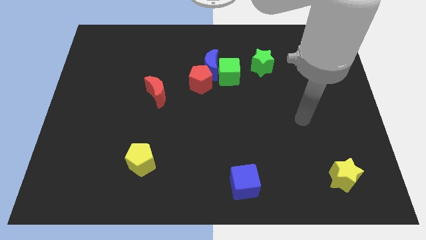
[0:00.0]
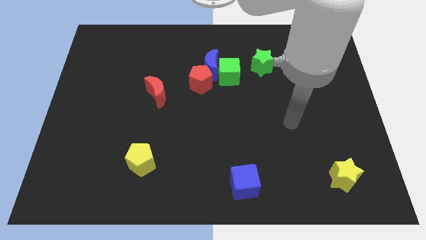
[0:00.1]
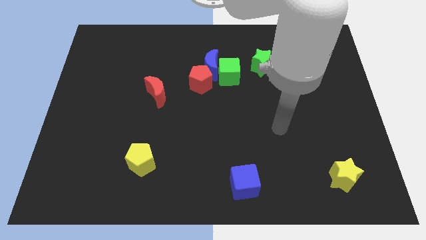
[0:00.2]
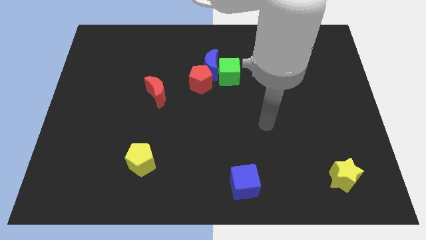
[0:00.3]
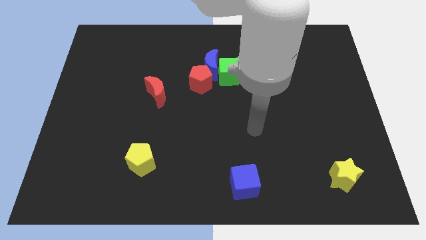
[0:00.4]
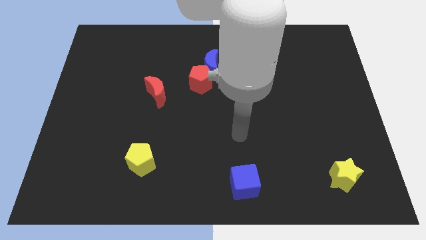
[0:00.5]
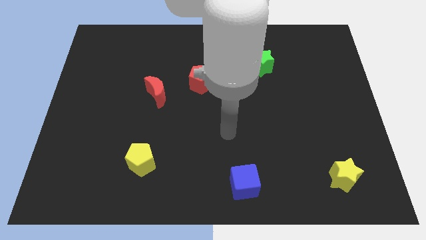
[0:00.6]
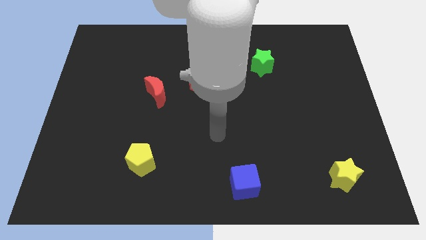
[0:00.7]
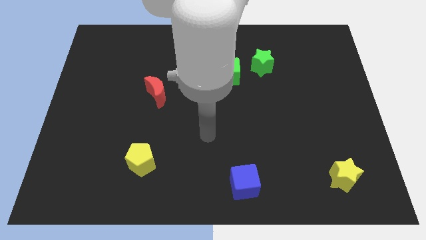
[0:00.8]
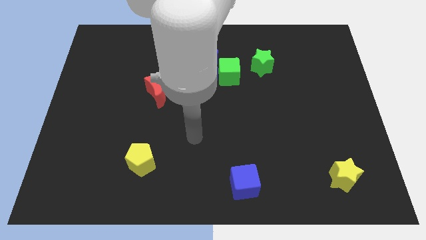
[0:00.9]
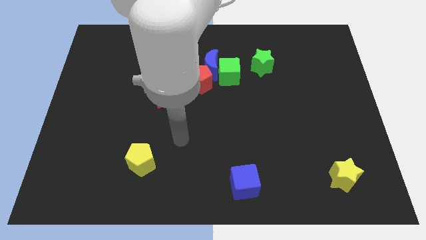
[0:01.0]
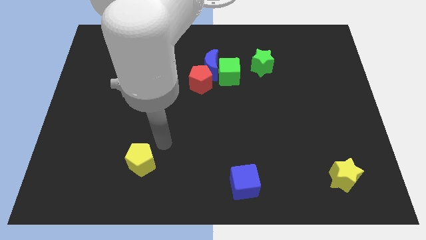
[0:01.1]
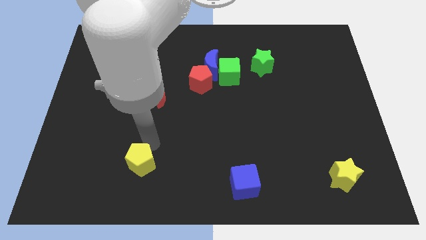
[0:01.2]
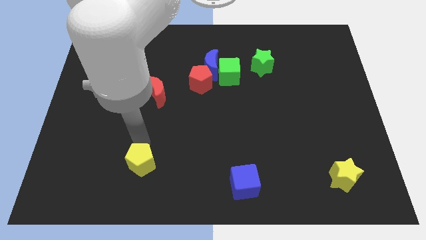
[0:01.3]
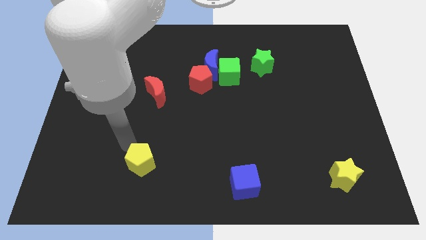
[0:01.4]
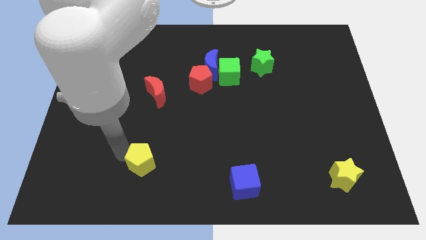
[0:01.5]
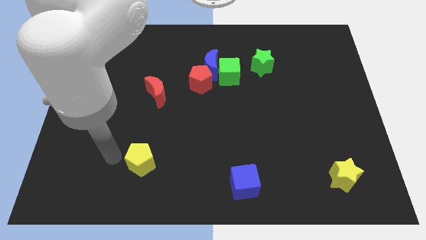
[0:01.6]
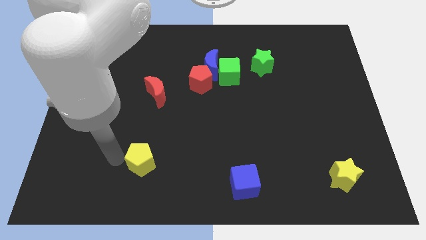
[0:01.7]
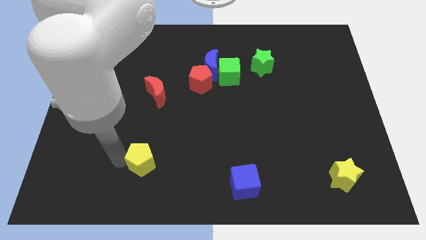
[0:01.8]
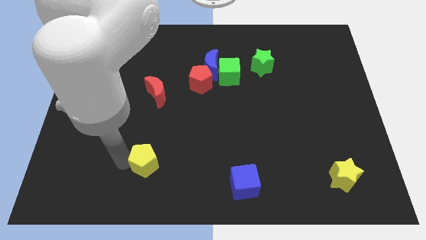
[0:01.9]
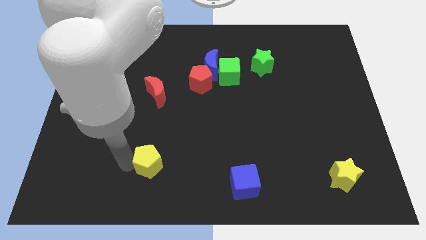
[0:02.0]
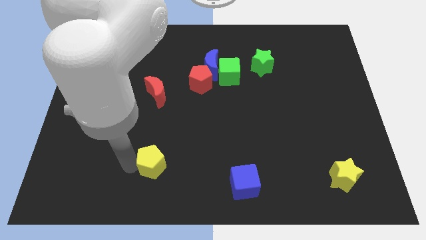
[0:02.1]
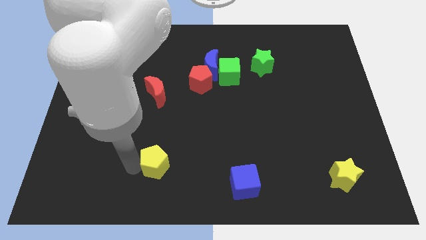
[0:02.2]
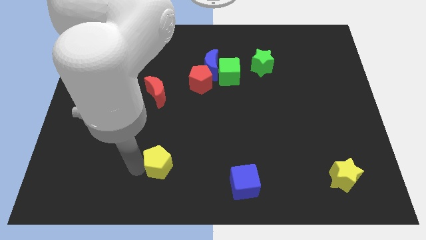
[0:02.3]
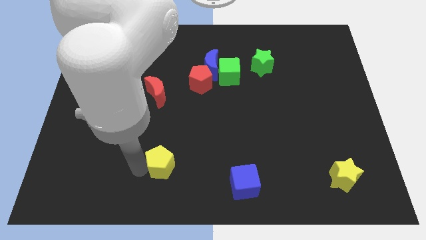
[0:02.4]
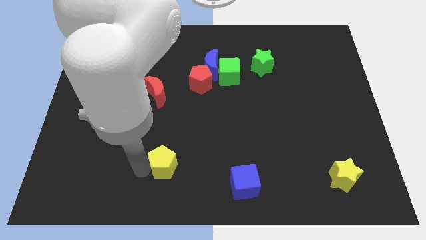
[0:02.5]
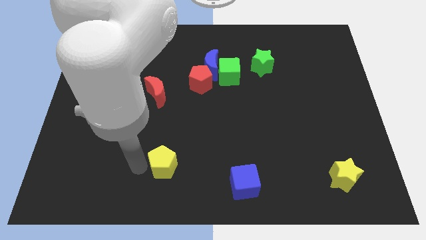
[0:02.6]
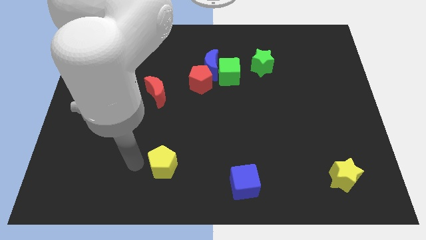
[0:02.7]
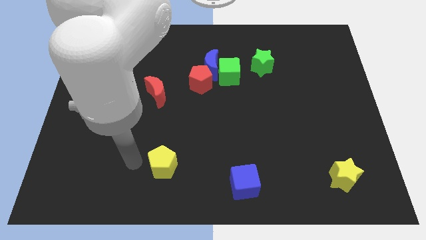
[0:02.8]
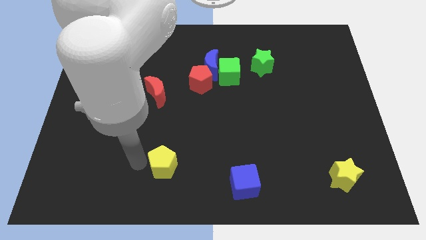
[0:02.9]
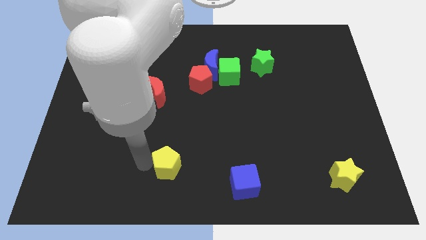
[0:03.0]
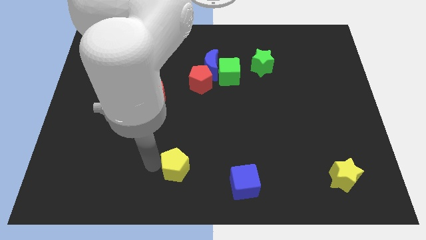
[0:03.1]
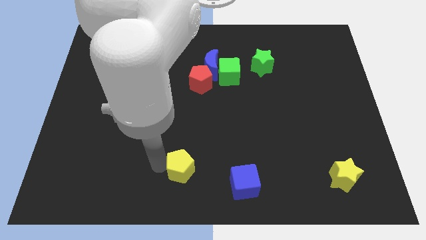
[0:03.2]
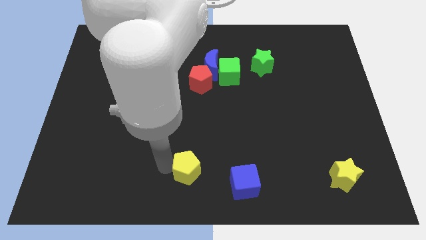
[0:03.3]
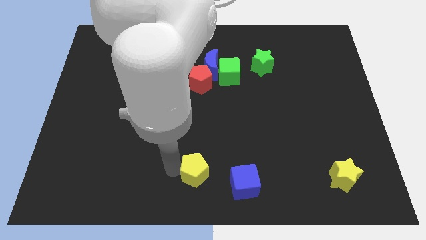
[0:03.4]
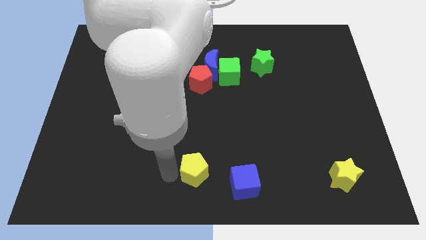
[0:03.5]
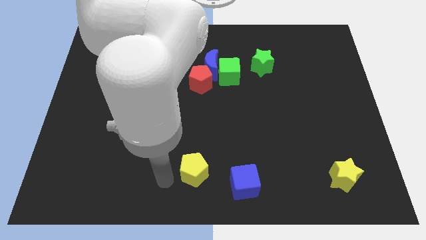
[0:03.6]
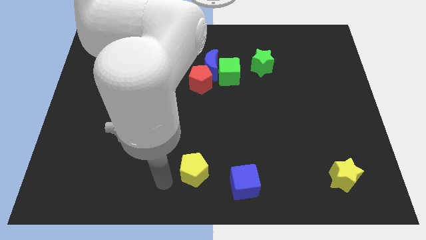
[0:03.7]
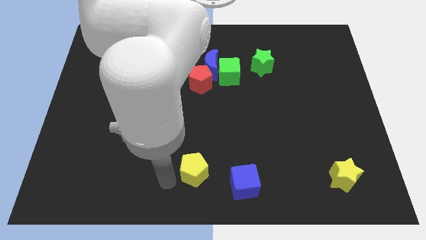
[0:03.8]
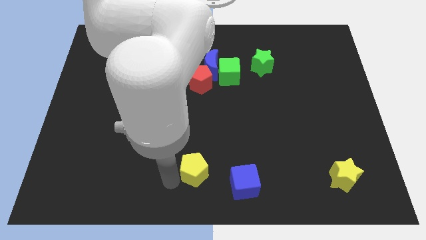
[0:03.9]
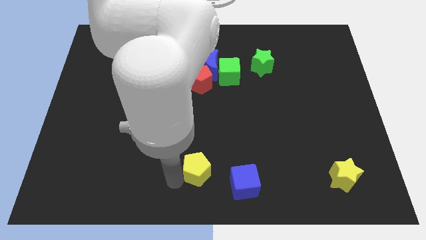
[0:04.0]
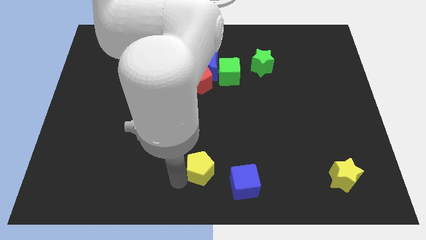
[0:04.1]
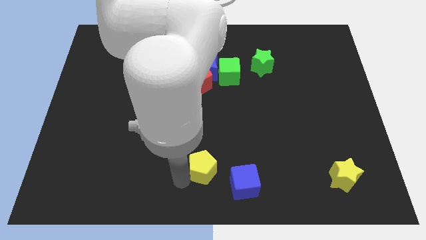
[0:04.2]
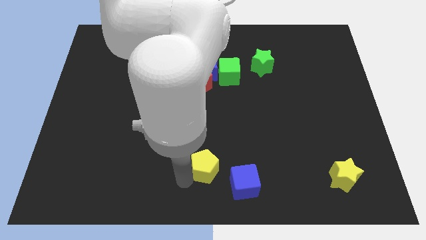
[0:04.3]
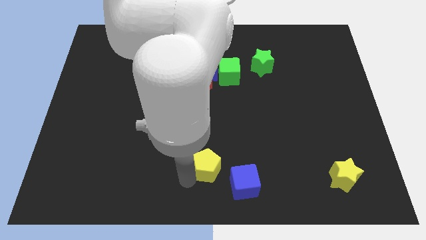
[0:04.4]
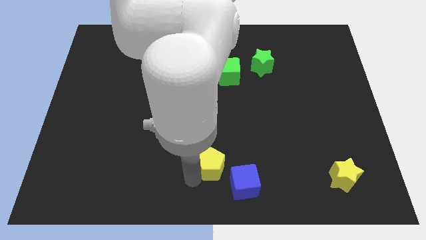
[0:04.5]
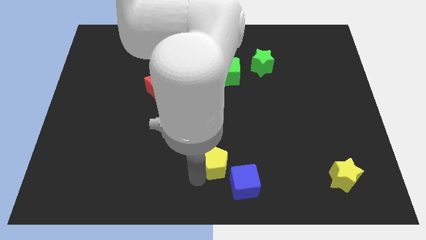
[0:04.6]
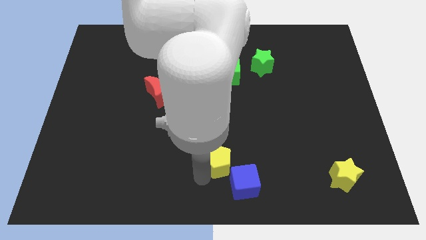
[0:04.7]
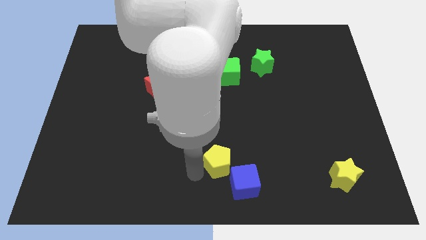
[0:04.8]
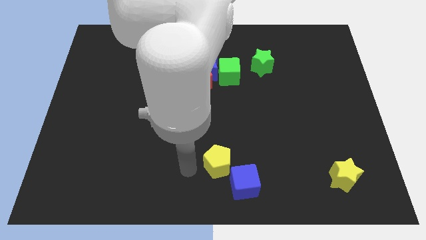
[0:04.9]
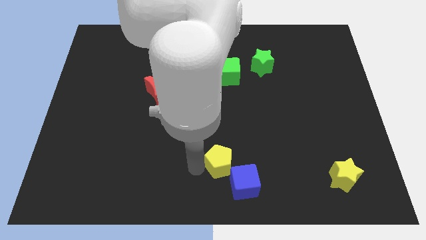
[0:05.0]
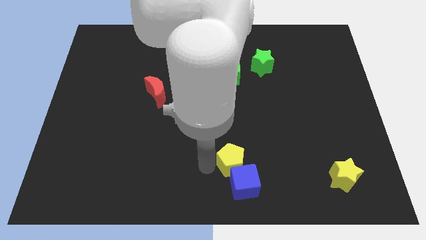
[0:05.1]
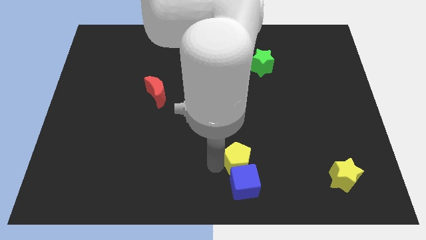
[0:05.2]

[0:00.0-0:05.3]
push the yellow pentagon to the right

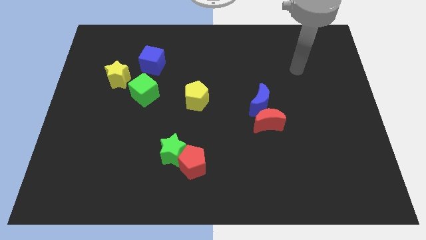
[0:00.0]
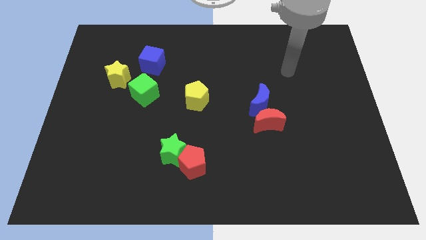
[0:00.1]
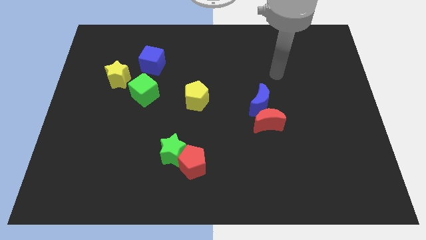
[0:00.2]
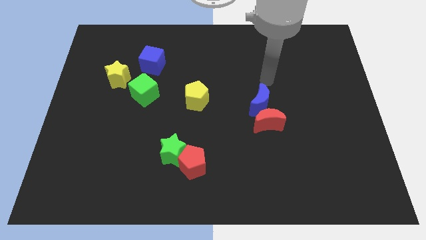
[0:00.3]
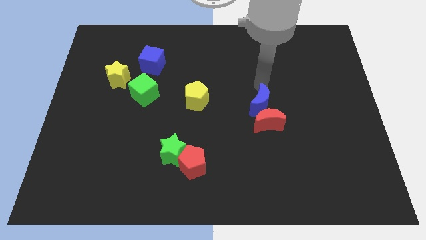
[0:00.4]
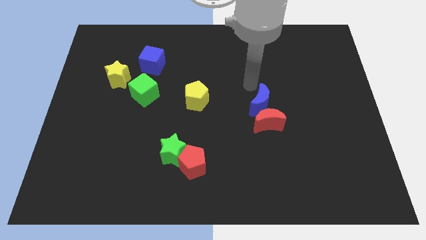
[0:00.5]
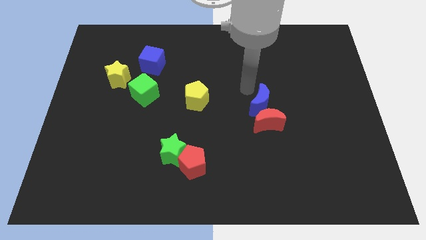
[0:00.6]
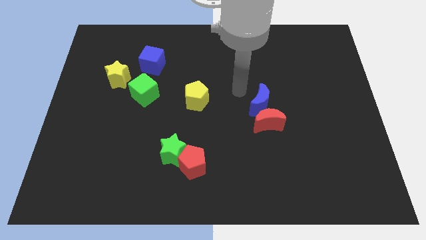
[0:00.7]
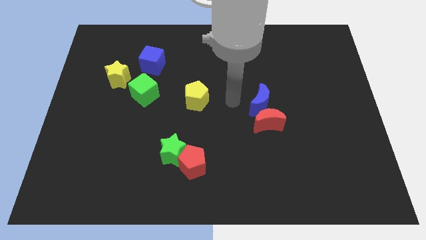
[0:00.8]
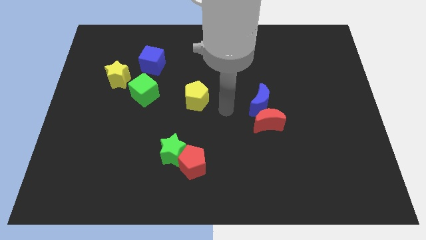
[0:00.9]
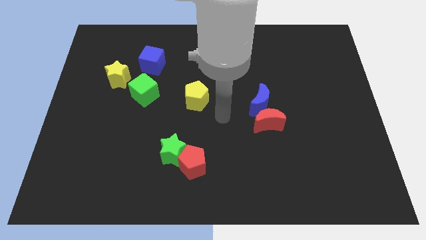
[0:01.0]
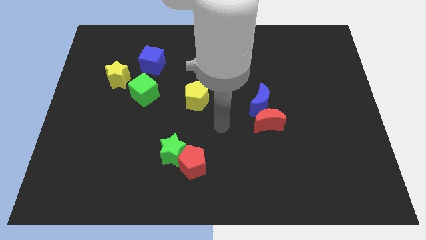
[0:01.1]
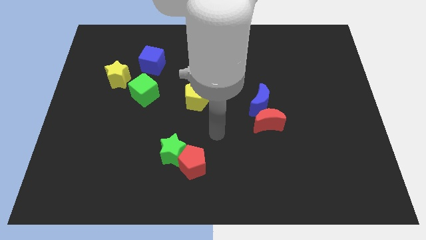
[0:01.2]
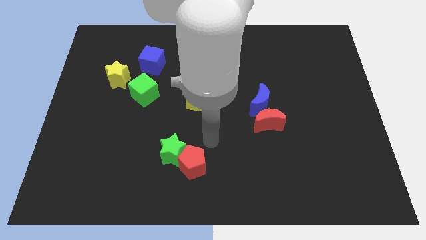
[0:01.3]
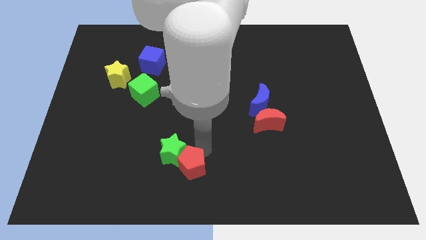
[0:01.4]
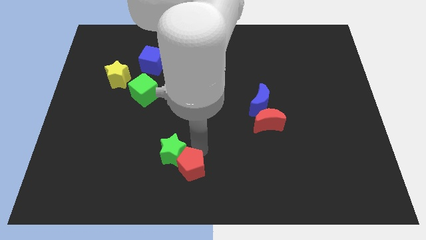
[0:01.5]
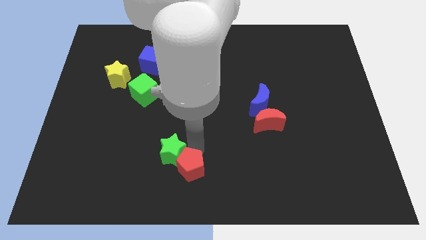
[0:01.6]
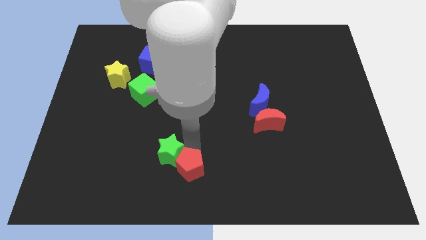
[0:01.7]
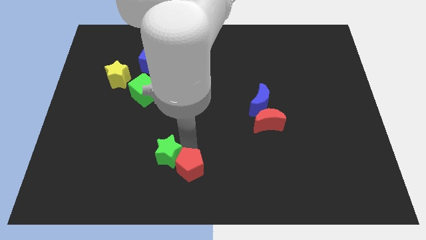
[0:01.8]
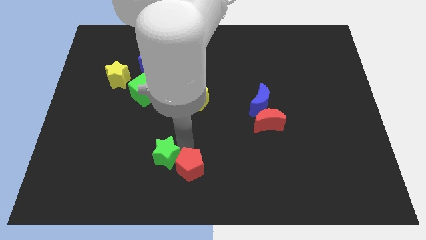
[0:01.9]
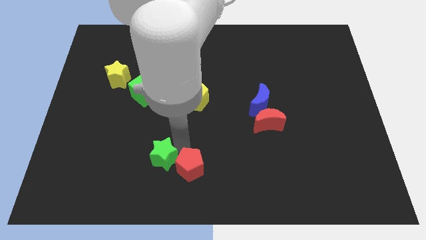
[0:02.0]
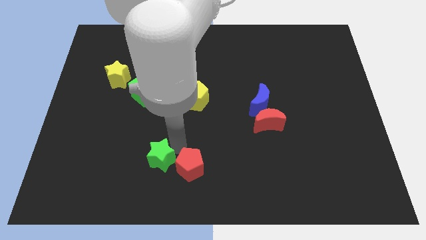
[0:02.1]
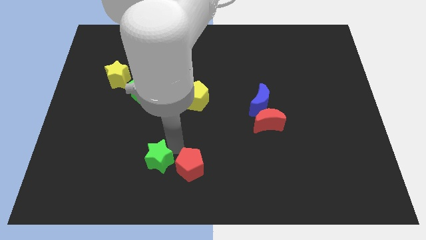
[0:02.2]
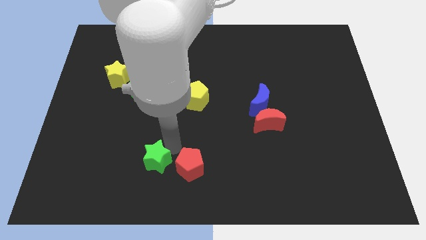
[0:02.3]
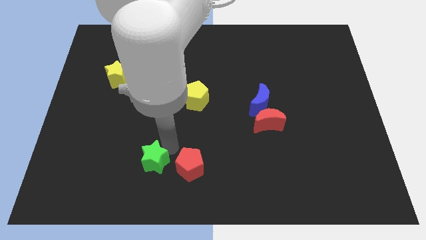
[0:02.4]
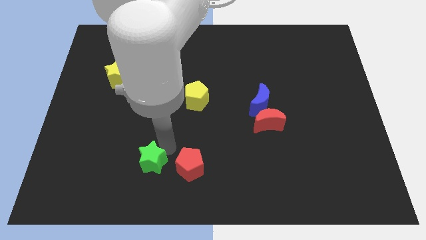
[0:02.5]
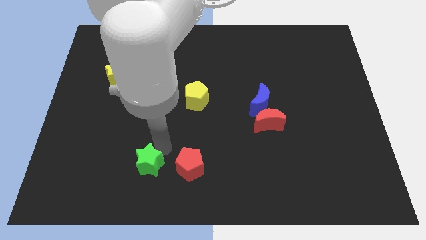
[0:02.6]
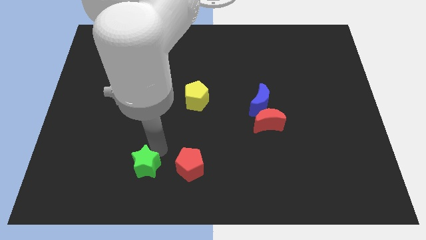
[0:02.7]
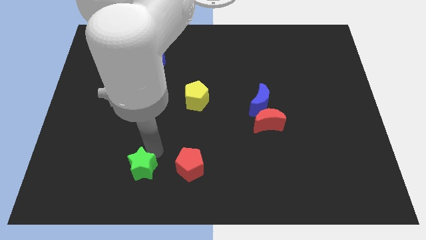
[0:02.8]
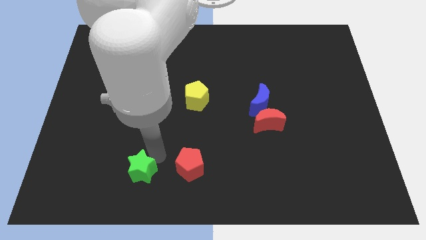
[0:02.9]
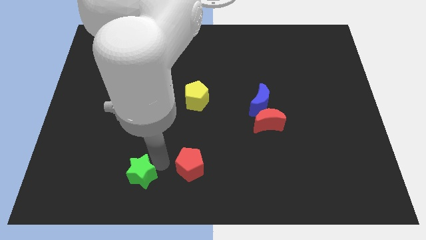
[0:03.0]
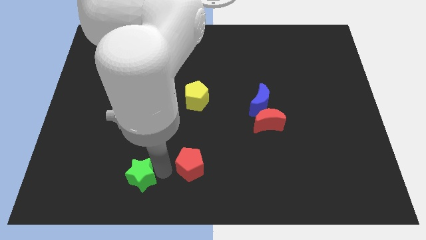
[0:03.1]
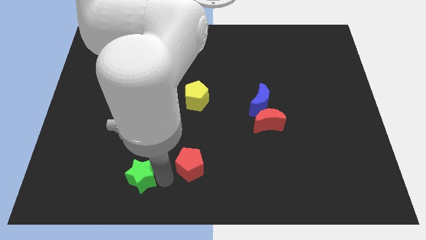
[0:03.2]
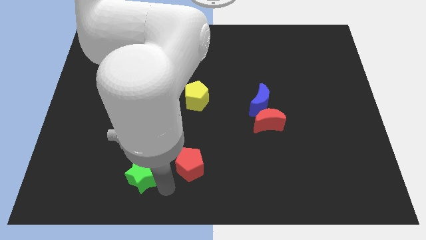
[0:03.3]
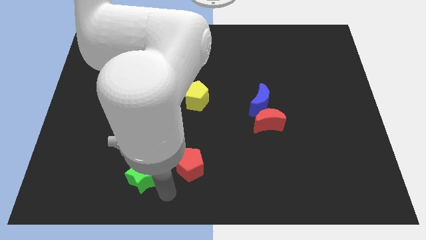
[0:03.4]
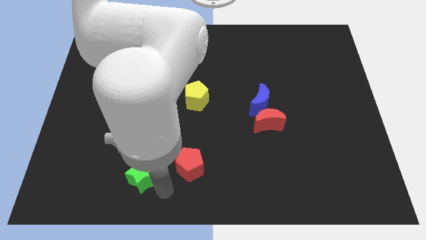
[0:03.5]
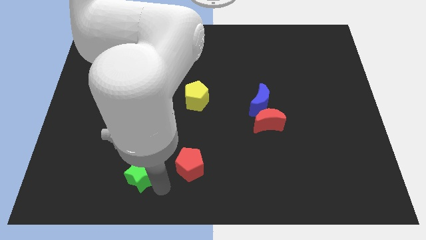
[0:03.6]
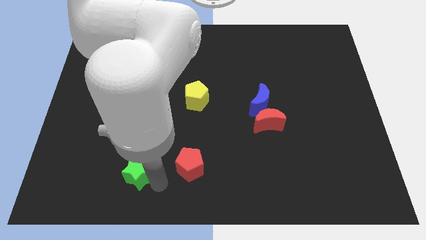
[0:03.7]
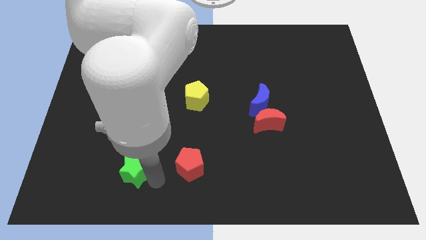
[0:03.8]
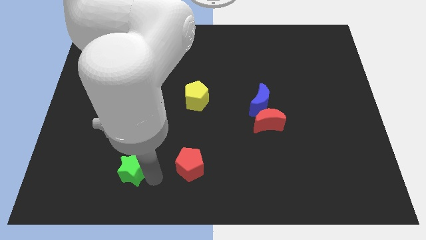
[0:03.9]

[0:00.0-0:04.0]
move the green star to the left slightly
